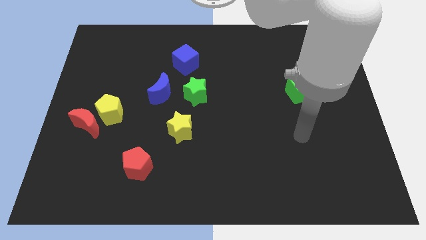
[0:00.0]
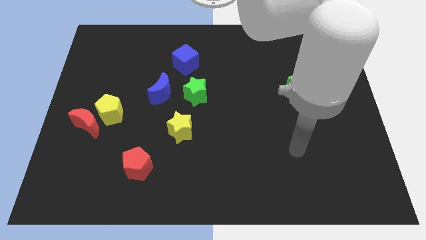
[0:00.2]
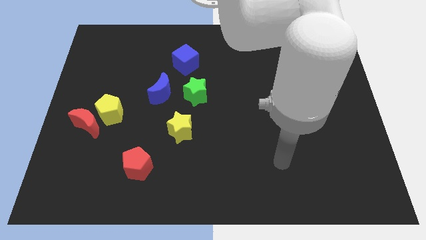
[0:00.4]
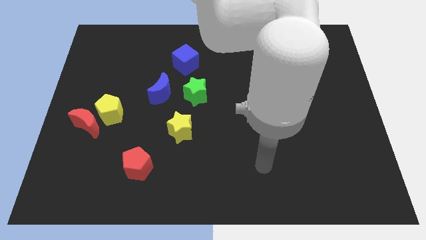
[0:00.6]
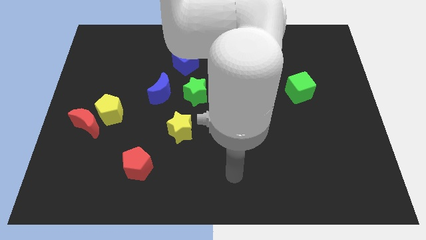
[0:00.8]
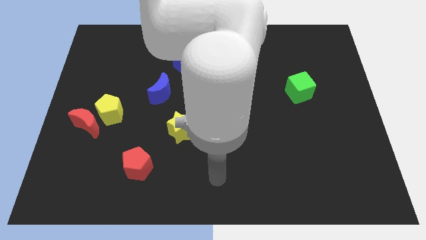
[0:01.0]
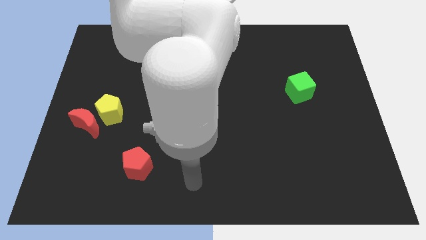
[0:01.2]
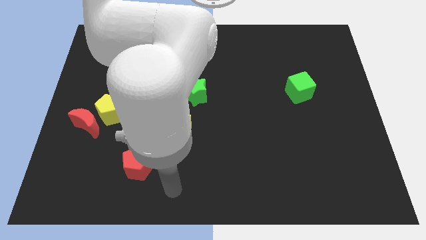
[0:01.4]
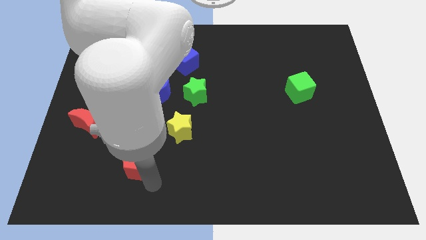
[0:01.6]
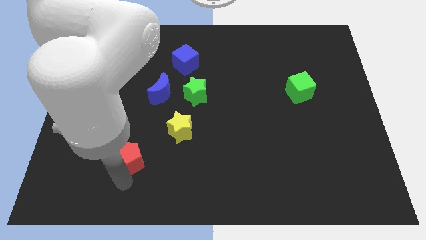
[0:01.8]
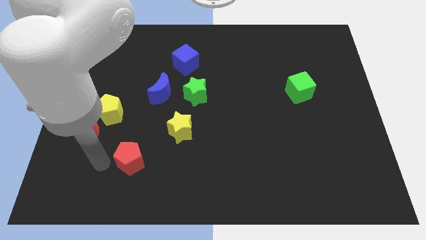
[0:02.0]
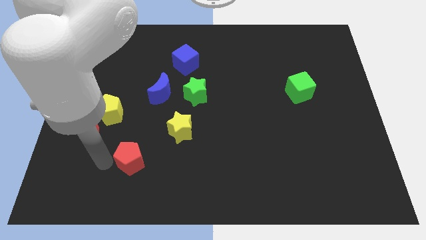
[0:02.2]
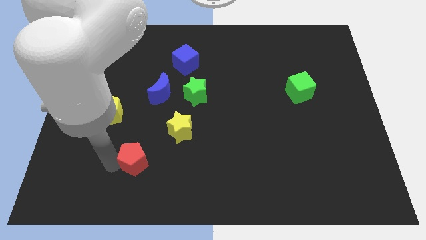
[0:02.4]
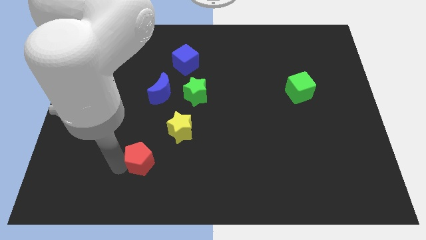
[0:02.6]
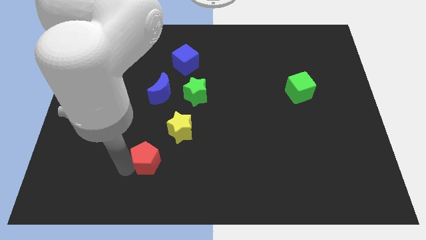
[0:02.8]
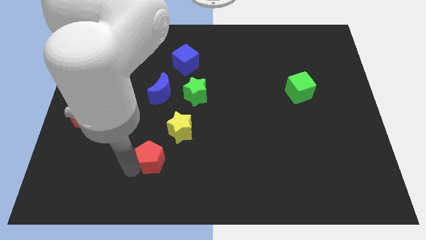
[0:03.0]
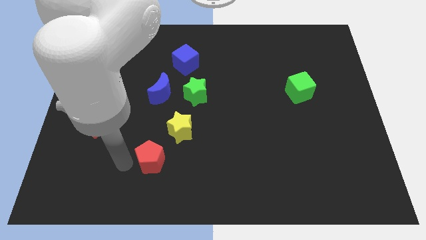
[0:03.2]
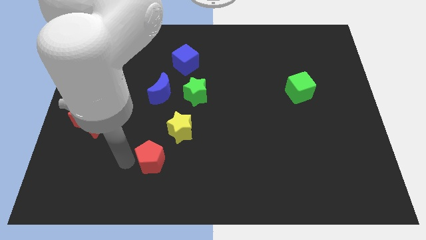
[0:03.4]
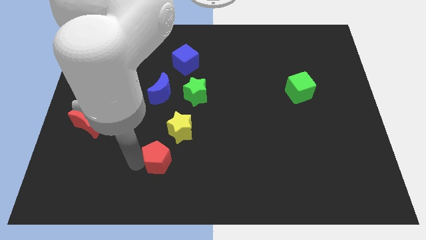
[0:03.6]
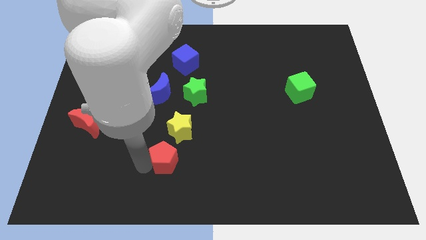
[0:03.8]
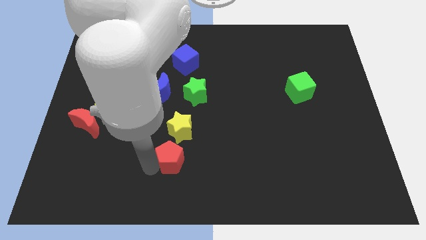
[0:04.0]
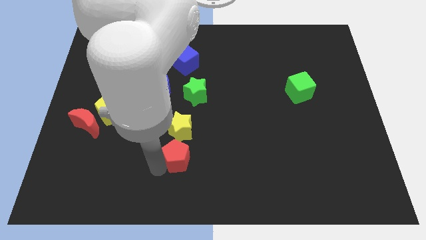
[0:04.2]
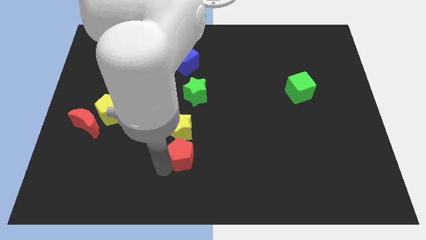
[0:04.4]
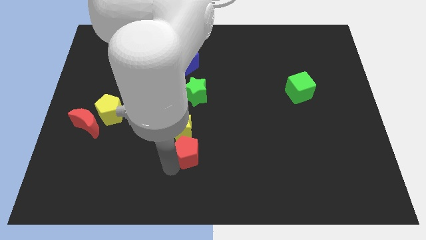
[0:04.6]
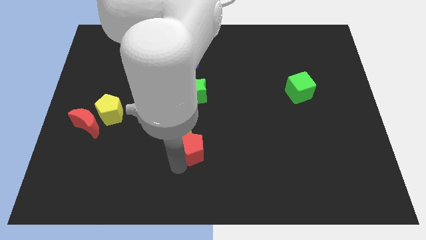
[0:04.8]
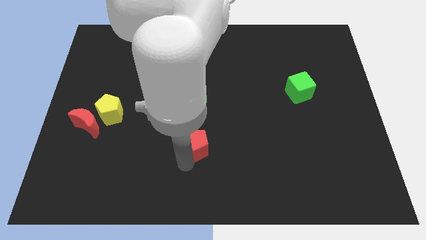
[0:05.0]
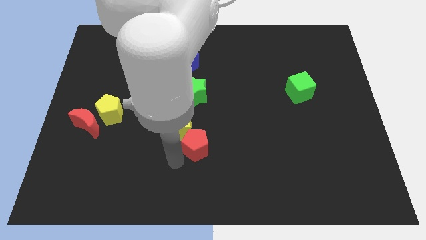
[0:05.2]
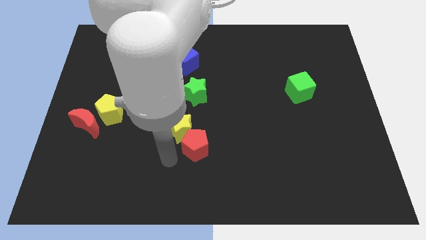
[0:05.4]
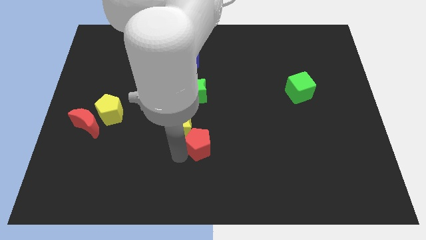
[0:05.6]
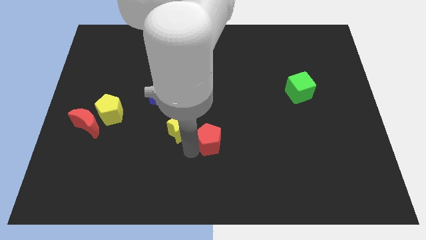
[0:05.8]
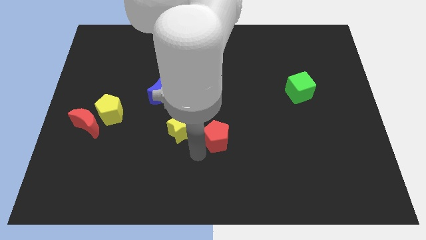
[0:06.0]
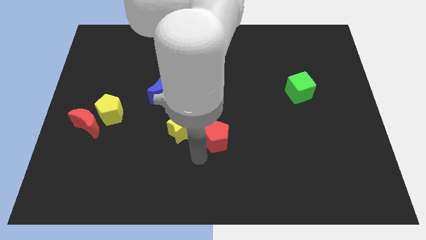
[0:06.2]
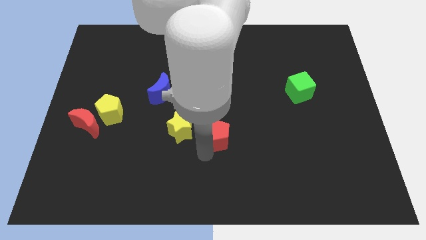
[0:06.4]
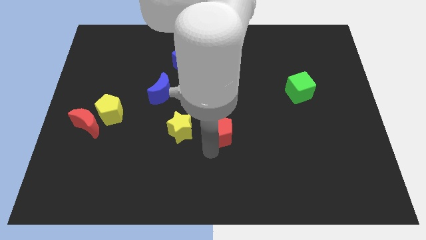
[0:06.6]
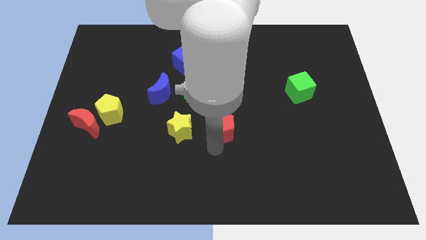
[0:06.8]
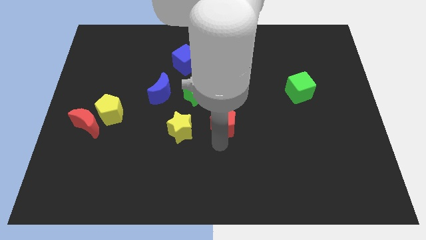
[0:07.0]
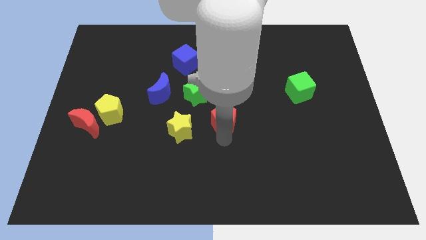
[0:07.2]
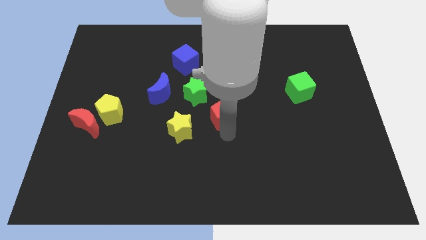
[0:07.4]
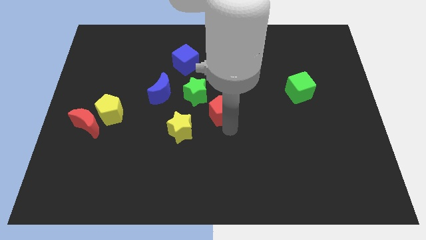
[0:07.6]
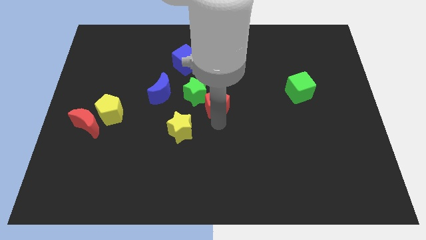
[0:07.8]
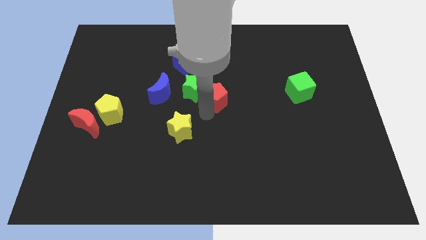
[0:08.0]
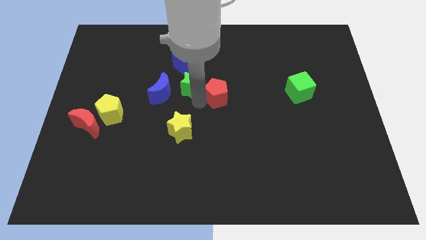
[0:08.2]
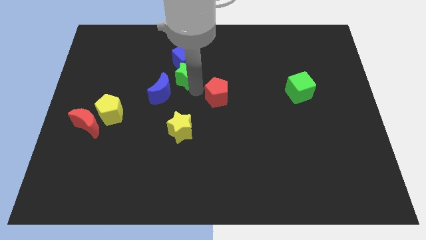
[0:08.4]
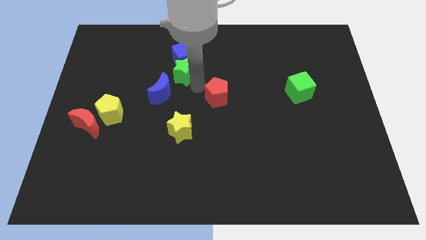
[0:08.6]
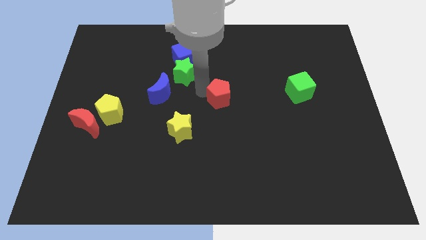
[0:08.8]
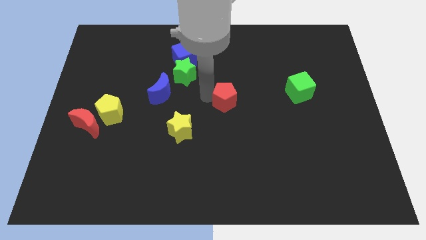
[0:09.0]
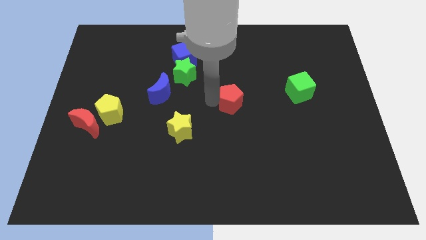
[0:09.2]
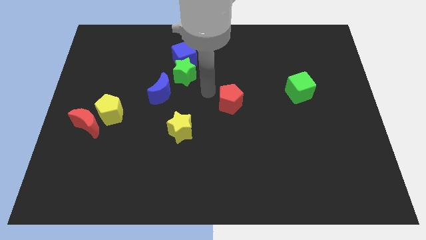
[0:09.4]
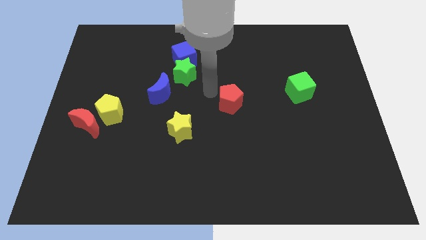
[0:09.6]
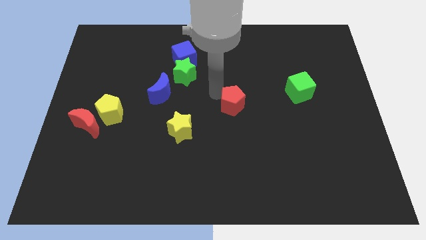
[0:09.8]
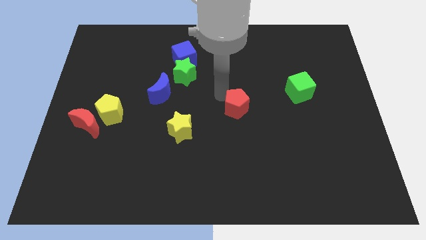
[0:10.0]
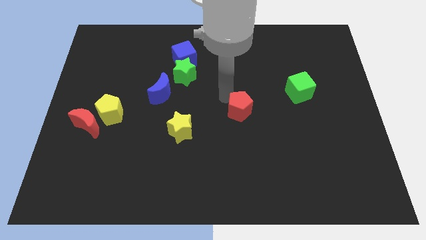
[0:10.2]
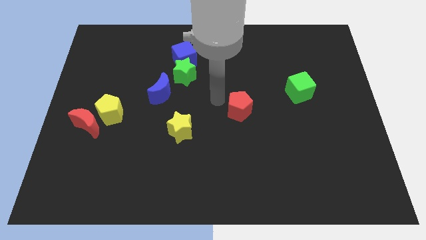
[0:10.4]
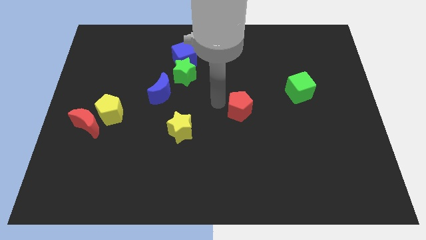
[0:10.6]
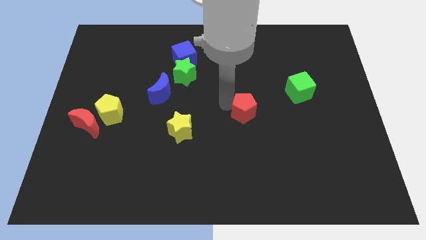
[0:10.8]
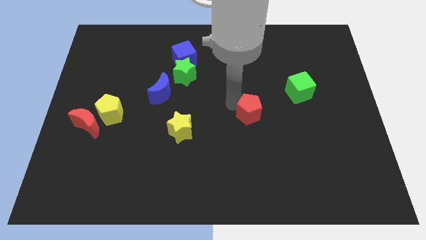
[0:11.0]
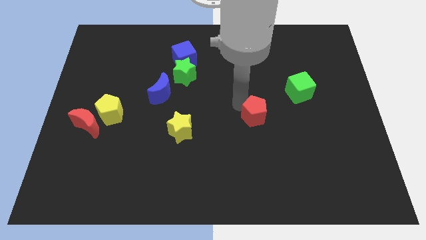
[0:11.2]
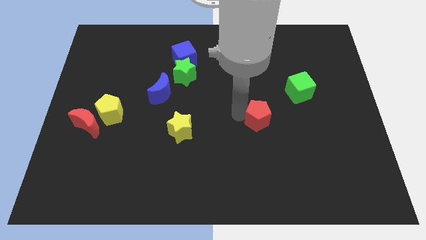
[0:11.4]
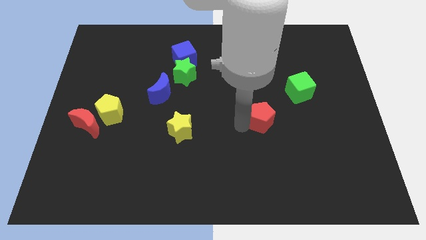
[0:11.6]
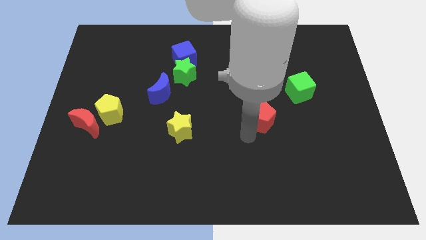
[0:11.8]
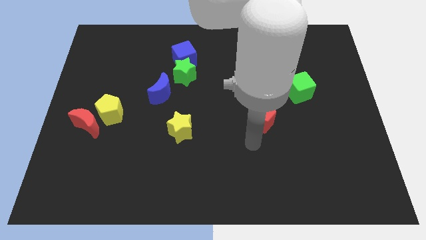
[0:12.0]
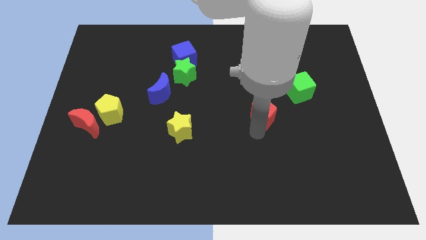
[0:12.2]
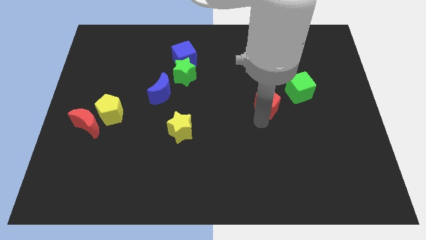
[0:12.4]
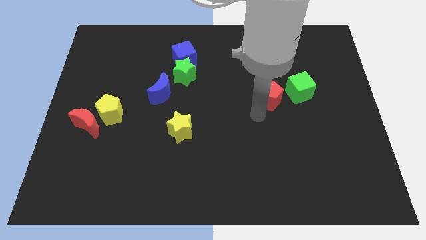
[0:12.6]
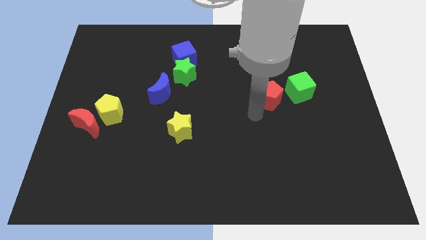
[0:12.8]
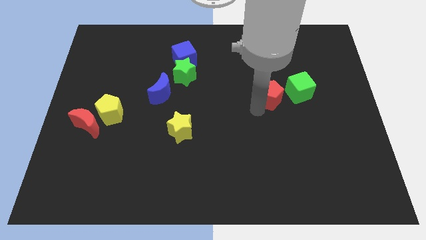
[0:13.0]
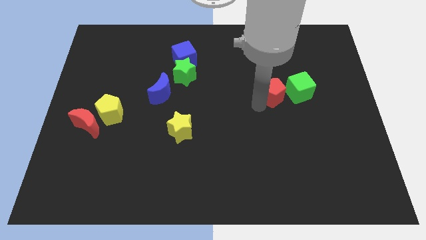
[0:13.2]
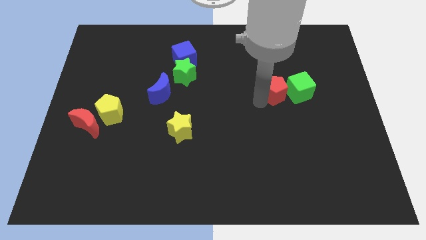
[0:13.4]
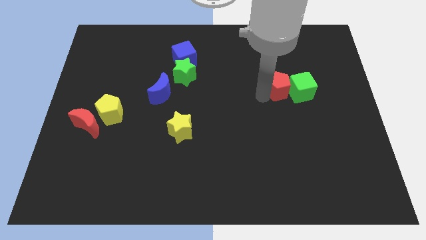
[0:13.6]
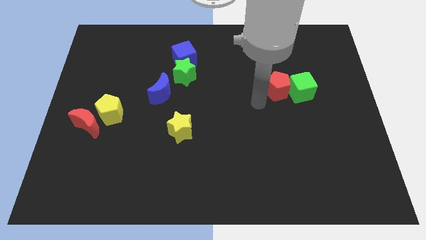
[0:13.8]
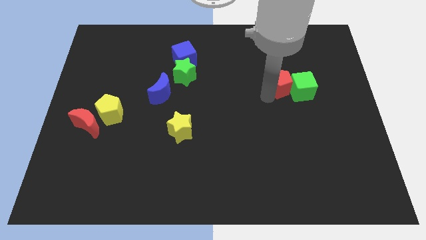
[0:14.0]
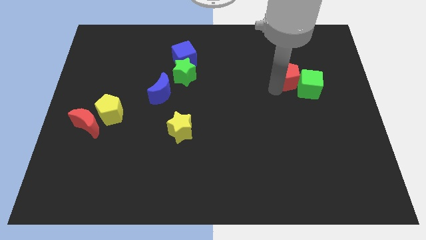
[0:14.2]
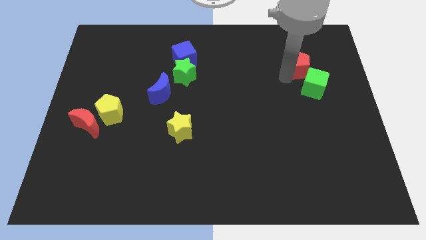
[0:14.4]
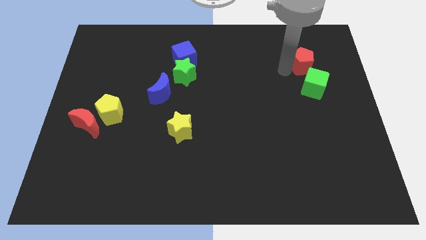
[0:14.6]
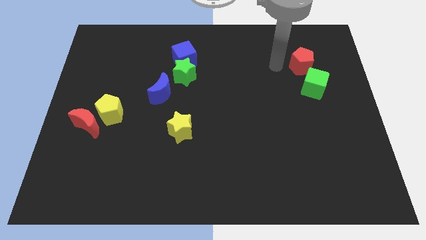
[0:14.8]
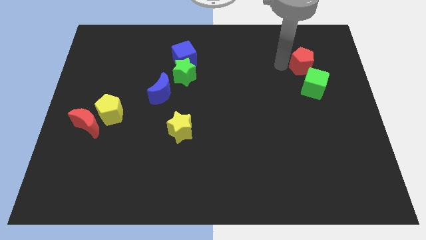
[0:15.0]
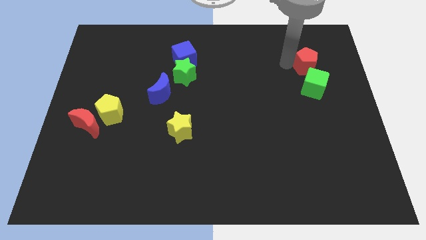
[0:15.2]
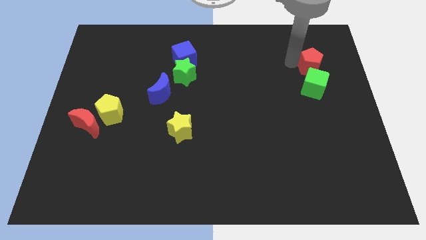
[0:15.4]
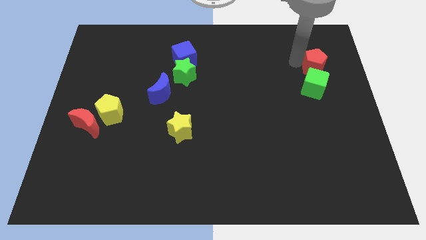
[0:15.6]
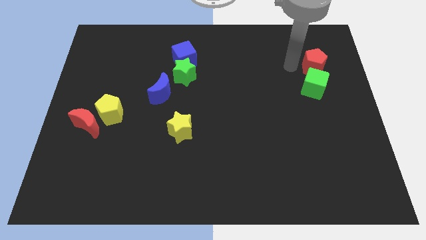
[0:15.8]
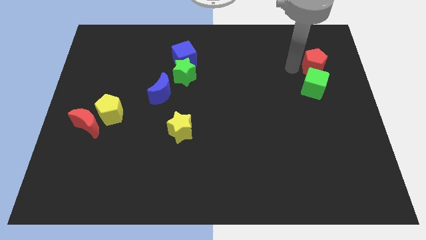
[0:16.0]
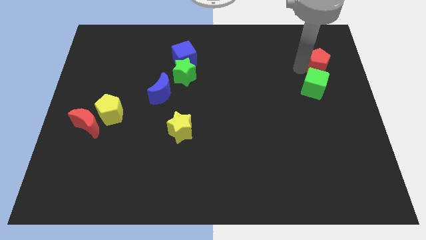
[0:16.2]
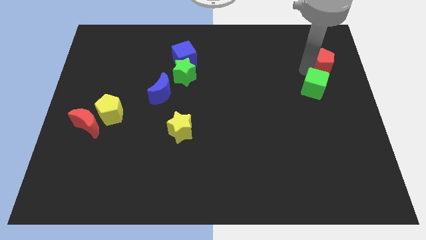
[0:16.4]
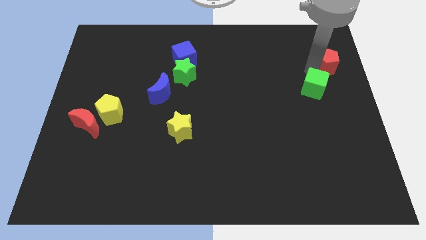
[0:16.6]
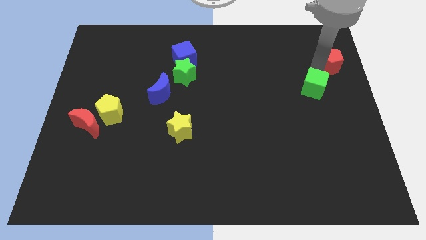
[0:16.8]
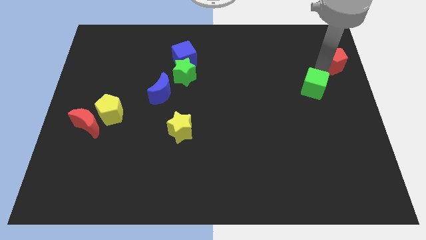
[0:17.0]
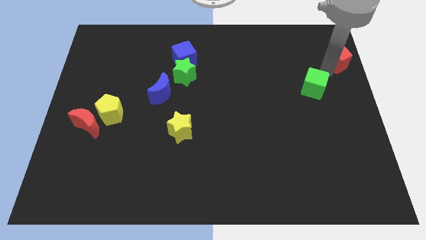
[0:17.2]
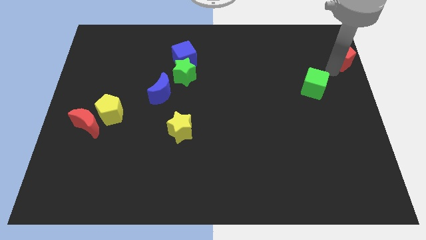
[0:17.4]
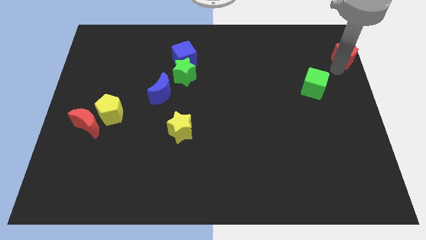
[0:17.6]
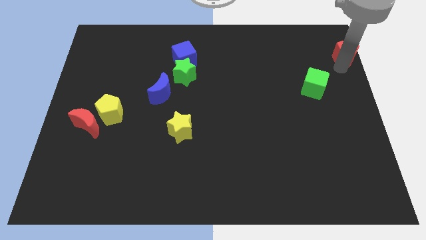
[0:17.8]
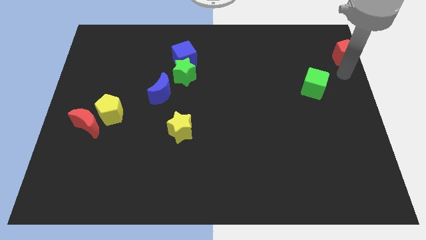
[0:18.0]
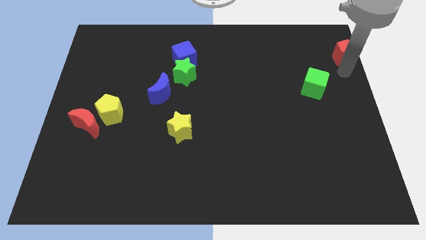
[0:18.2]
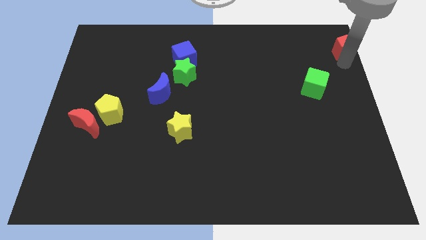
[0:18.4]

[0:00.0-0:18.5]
move the red pentagon to the top right
